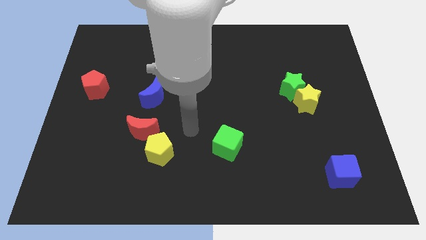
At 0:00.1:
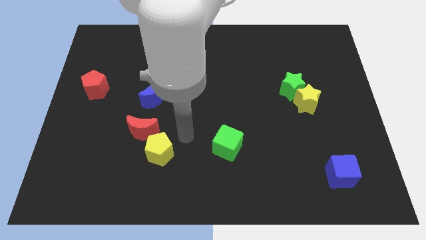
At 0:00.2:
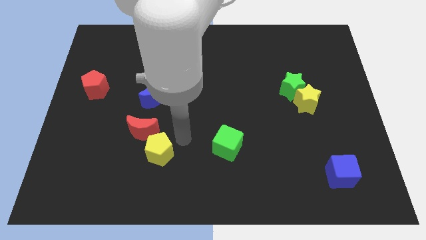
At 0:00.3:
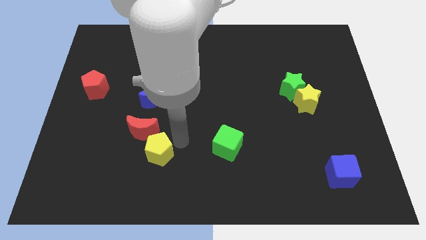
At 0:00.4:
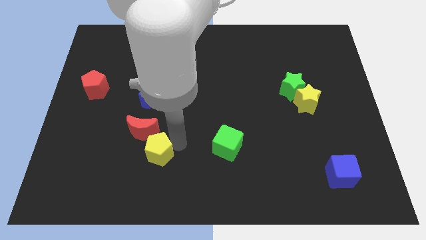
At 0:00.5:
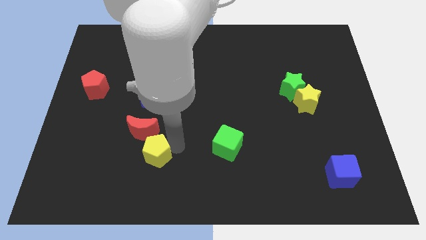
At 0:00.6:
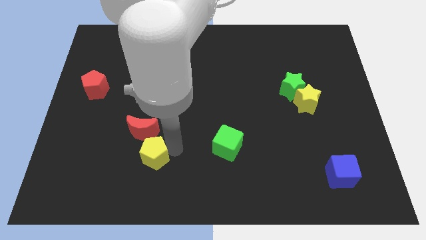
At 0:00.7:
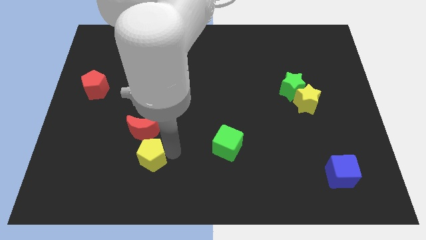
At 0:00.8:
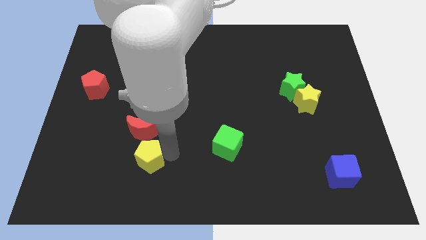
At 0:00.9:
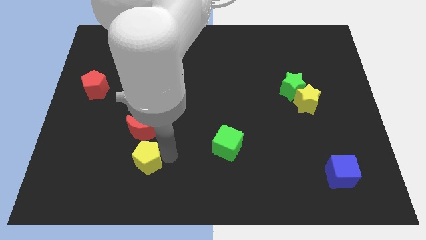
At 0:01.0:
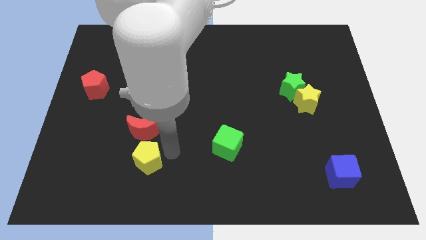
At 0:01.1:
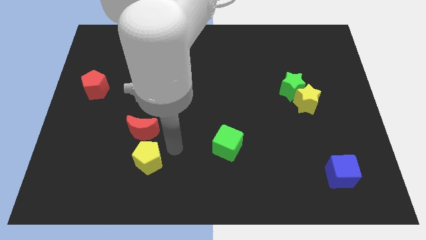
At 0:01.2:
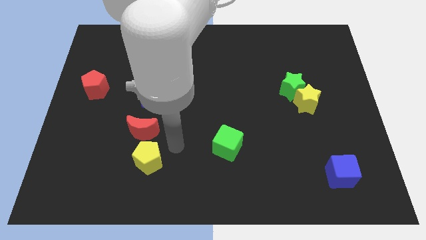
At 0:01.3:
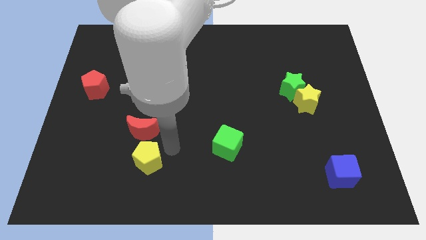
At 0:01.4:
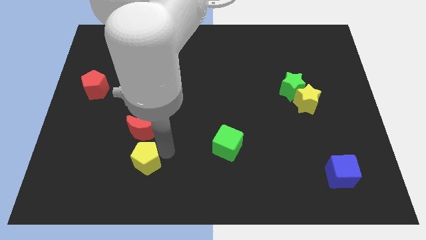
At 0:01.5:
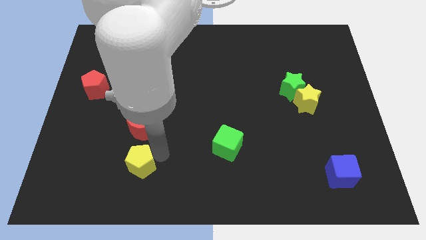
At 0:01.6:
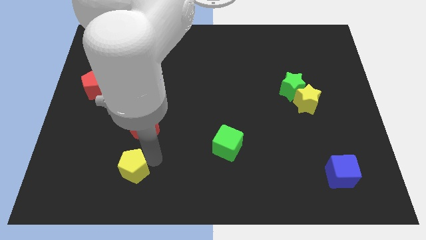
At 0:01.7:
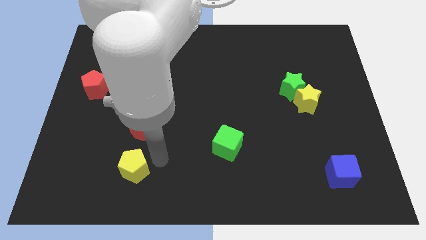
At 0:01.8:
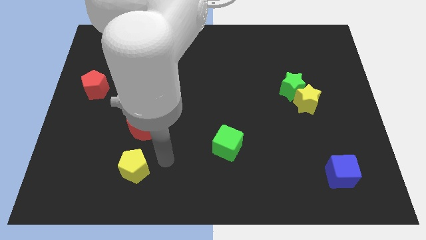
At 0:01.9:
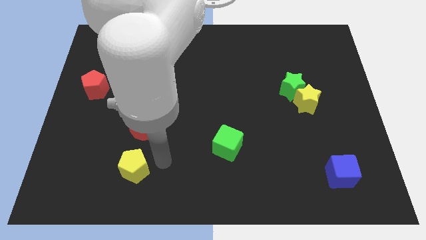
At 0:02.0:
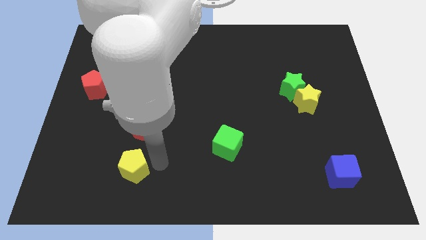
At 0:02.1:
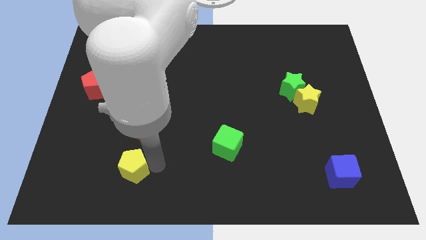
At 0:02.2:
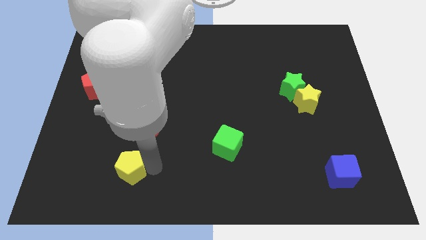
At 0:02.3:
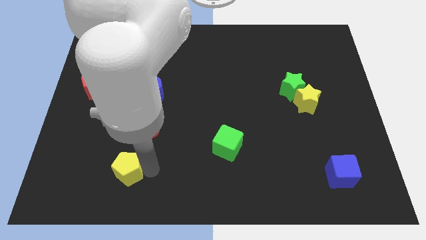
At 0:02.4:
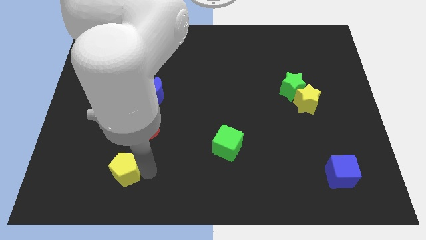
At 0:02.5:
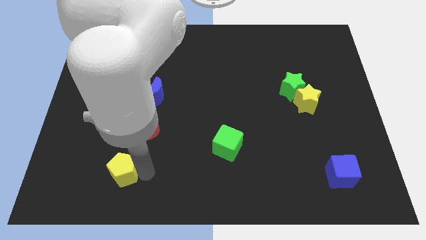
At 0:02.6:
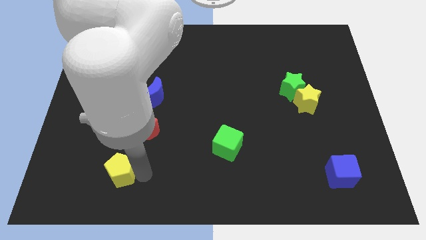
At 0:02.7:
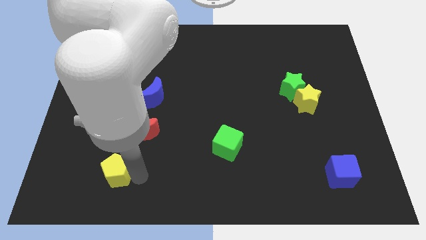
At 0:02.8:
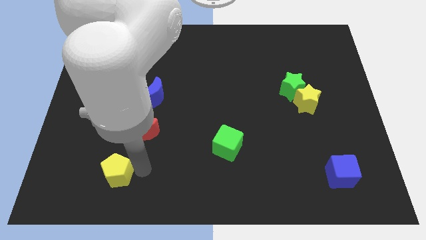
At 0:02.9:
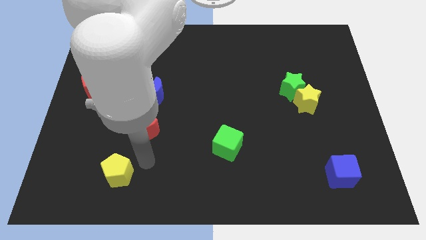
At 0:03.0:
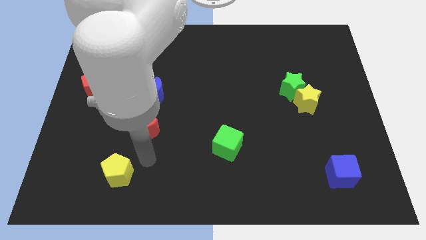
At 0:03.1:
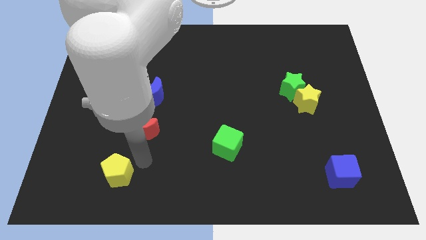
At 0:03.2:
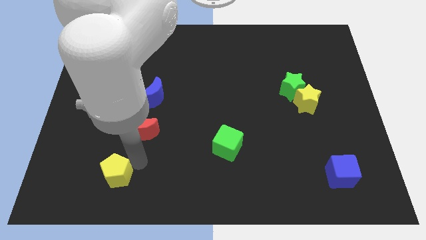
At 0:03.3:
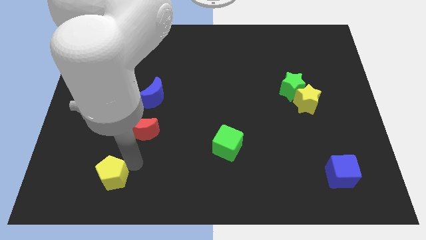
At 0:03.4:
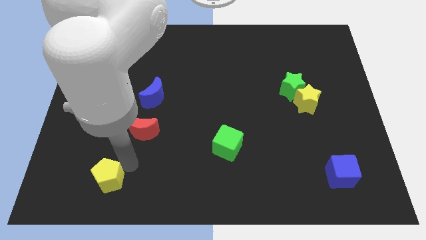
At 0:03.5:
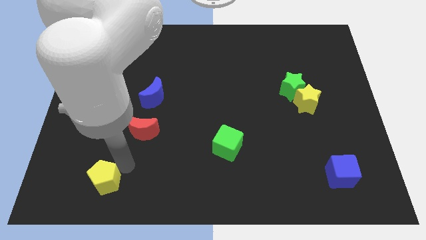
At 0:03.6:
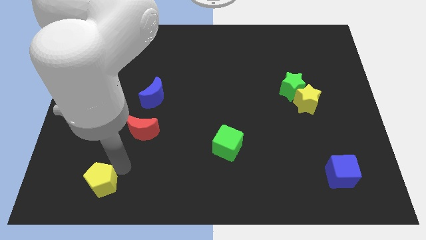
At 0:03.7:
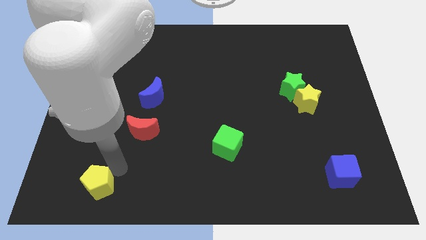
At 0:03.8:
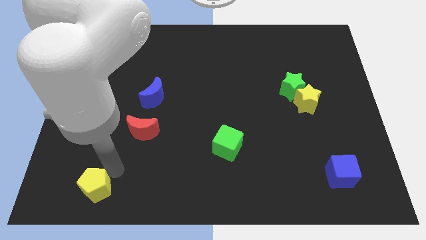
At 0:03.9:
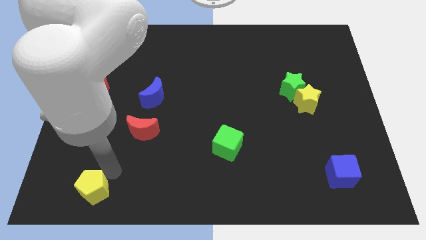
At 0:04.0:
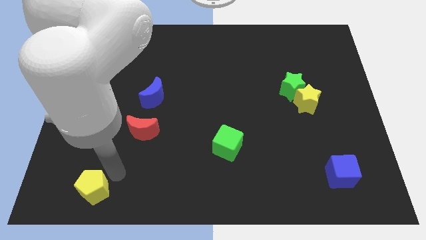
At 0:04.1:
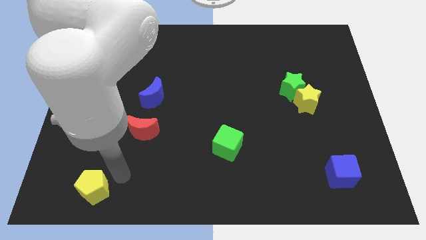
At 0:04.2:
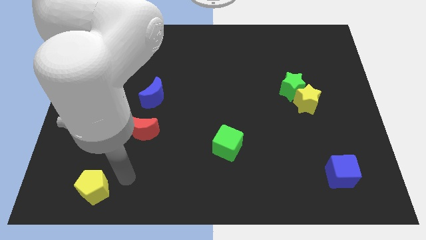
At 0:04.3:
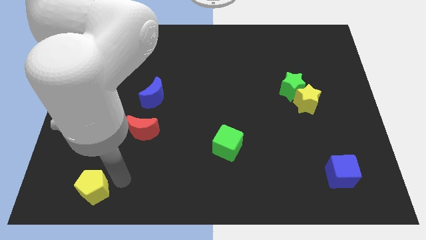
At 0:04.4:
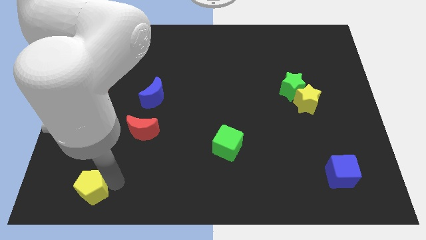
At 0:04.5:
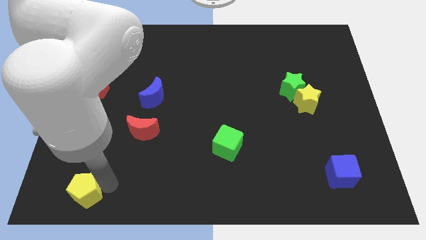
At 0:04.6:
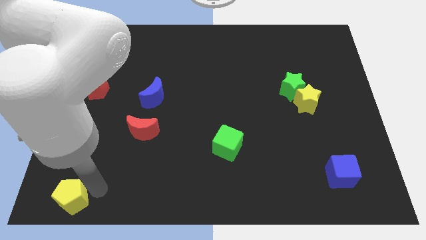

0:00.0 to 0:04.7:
put the yellow pentagon to the bottom left

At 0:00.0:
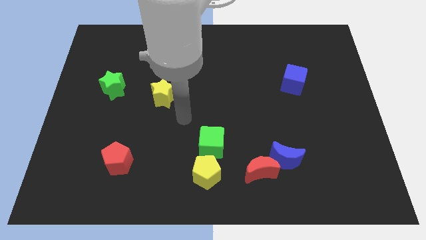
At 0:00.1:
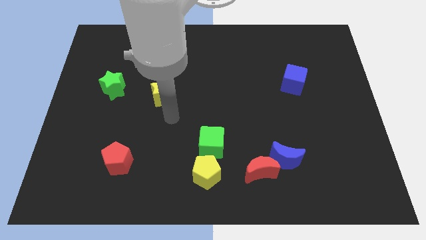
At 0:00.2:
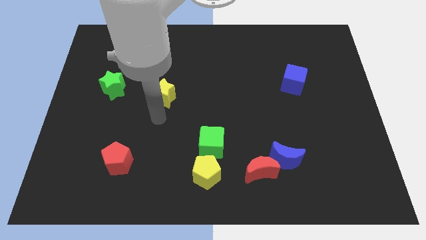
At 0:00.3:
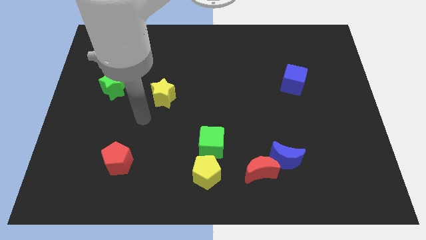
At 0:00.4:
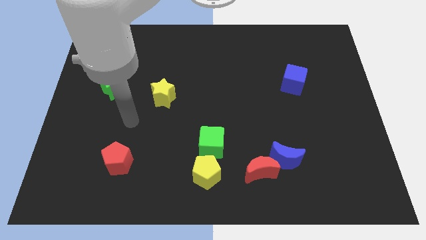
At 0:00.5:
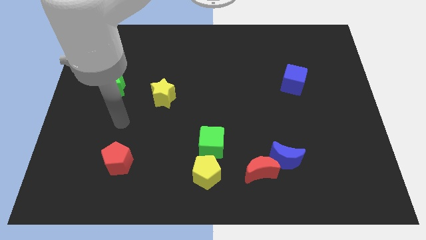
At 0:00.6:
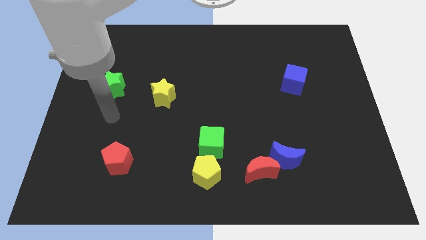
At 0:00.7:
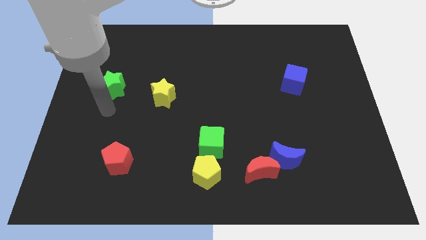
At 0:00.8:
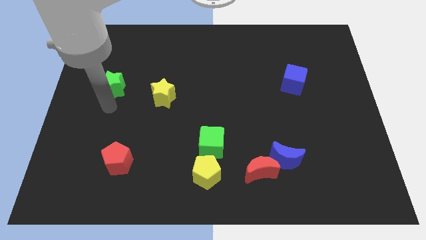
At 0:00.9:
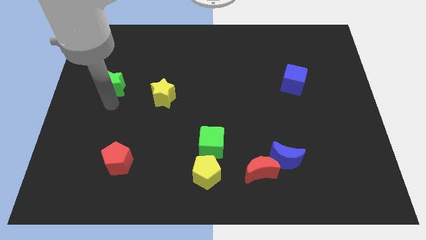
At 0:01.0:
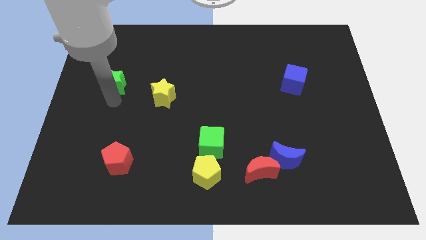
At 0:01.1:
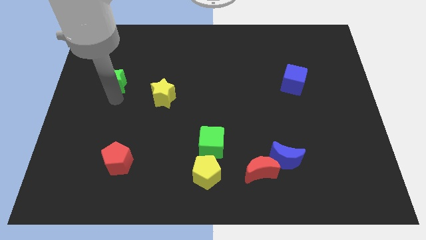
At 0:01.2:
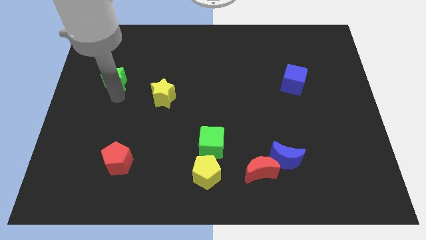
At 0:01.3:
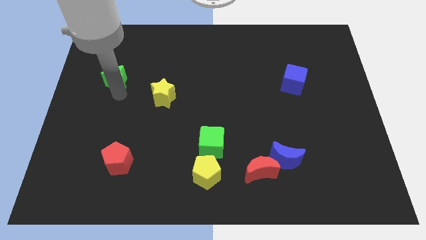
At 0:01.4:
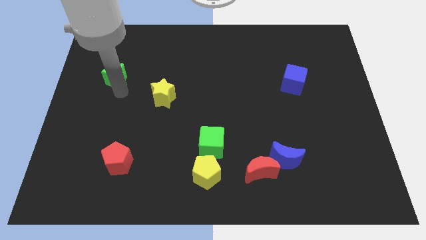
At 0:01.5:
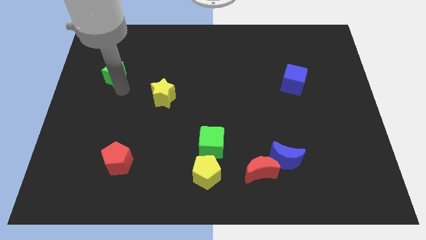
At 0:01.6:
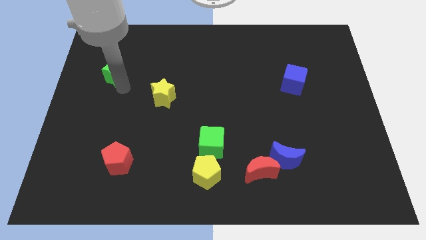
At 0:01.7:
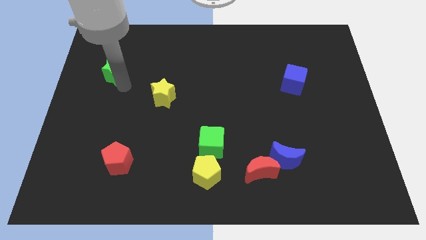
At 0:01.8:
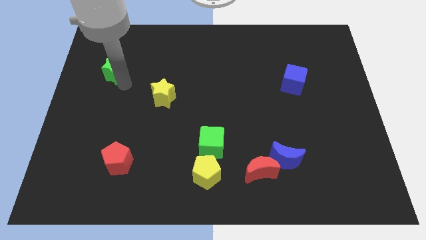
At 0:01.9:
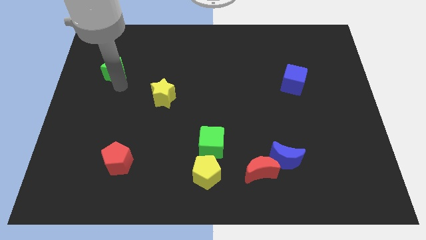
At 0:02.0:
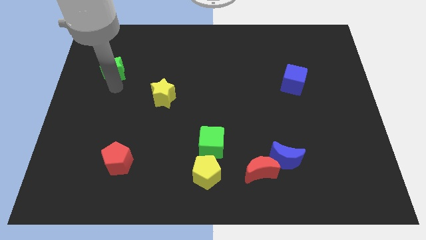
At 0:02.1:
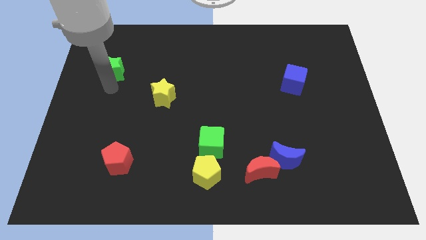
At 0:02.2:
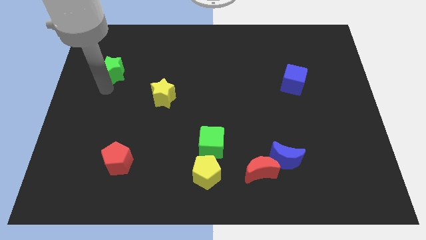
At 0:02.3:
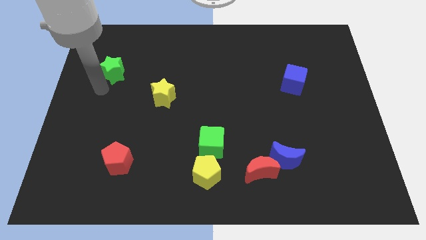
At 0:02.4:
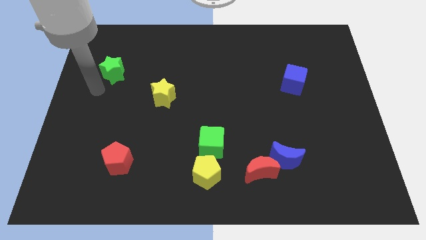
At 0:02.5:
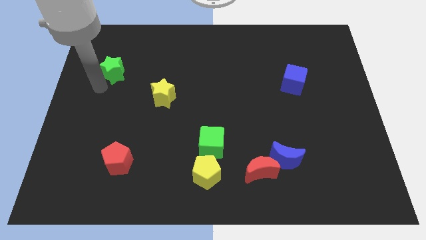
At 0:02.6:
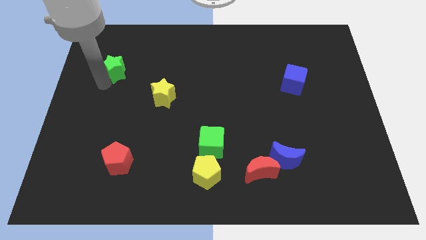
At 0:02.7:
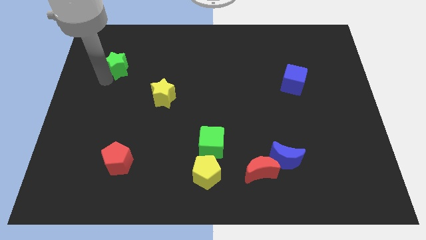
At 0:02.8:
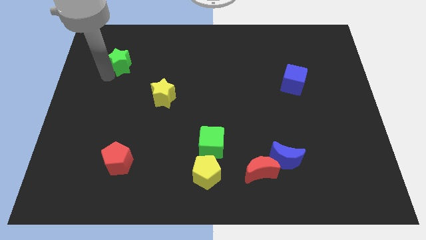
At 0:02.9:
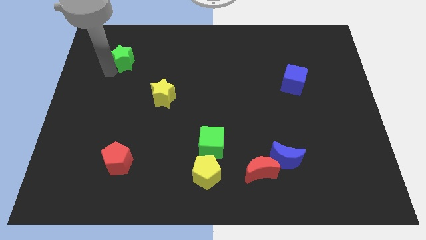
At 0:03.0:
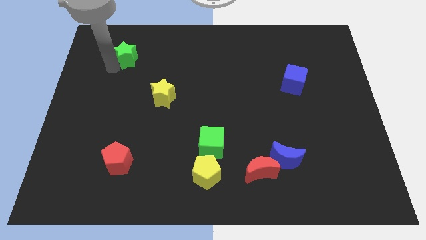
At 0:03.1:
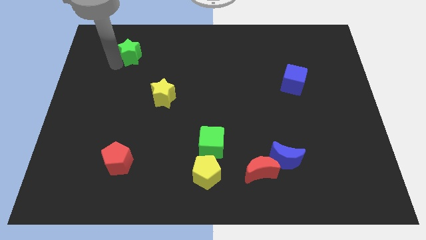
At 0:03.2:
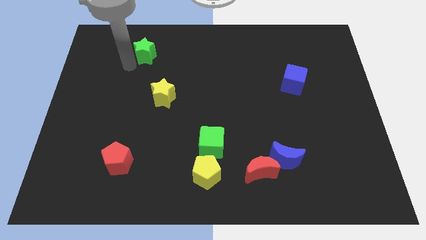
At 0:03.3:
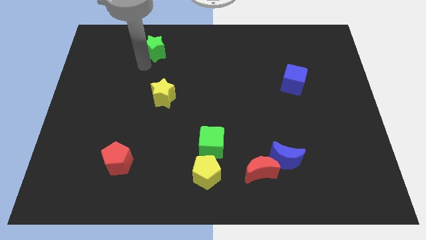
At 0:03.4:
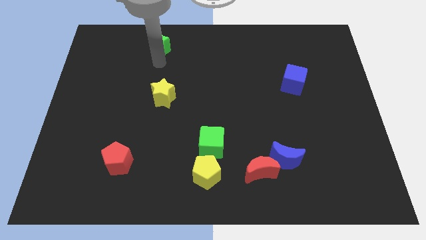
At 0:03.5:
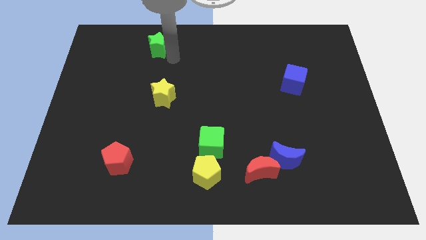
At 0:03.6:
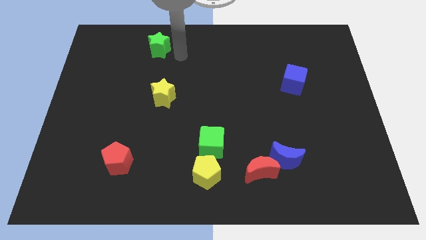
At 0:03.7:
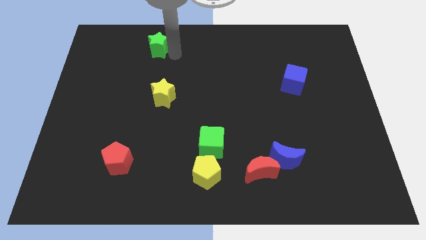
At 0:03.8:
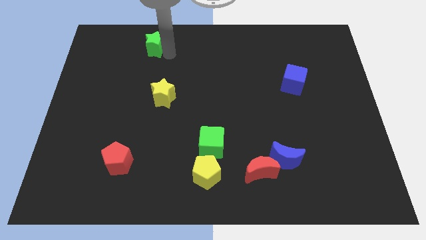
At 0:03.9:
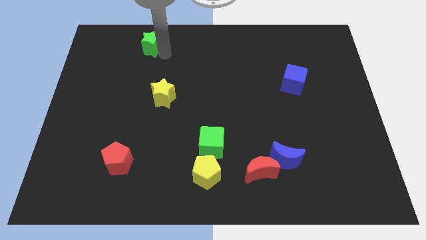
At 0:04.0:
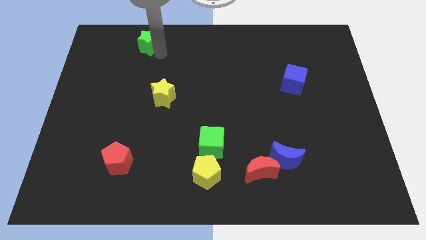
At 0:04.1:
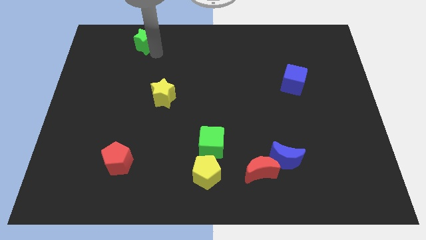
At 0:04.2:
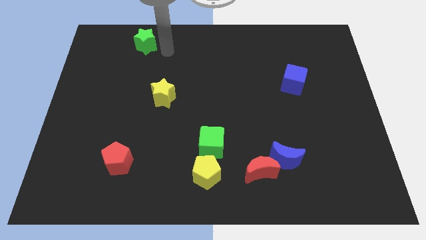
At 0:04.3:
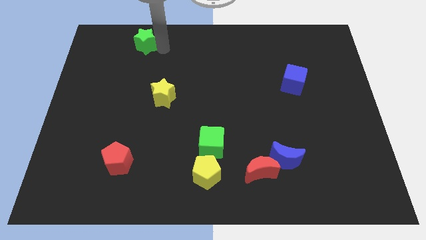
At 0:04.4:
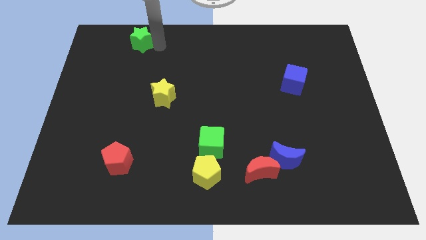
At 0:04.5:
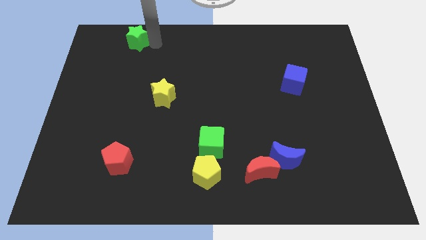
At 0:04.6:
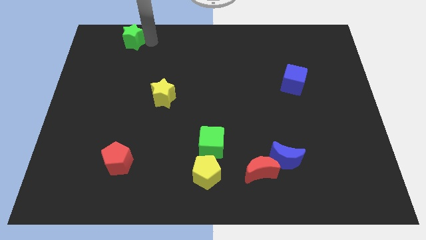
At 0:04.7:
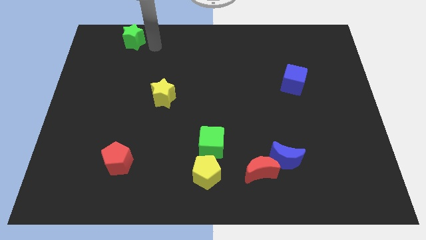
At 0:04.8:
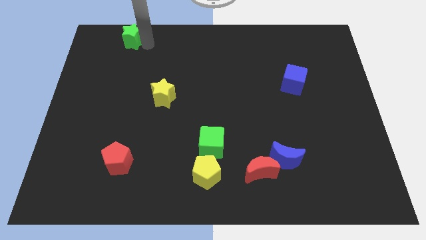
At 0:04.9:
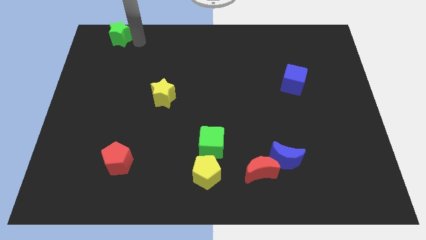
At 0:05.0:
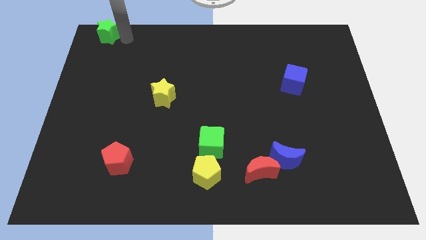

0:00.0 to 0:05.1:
slide the green star to the top left of the board
